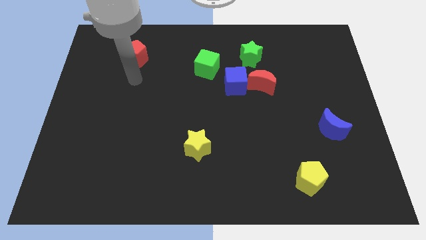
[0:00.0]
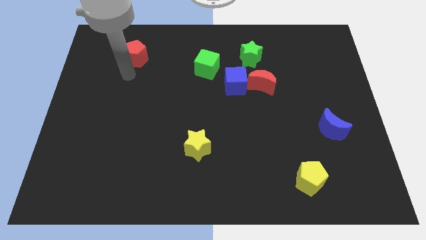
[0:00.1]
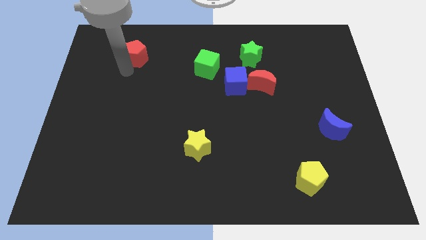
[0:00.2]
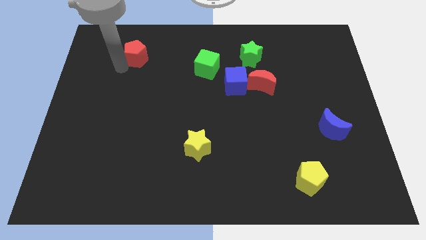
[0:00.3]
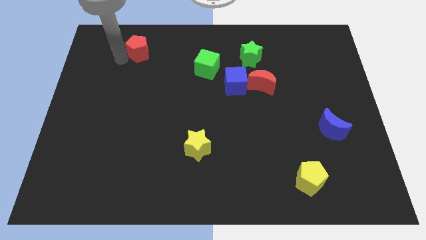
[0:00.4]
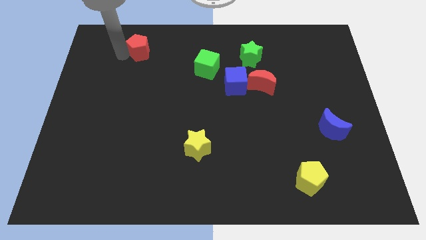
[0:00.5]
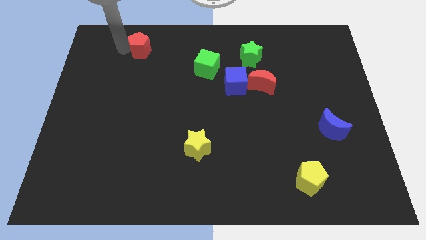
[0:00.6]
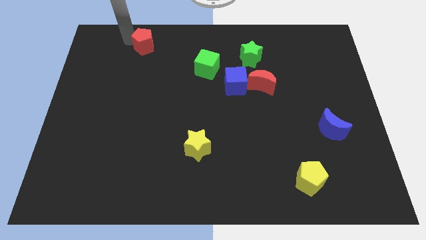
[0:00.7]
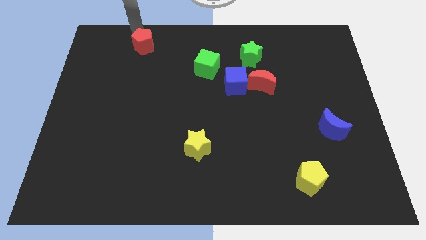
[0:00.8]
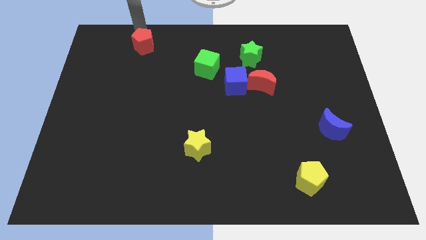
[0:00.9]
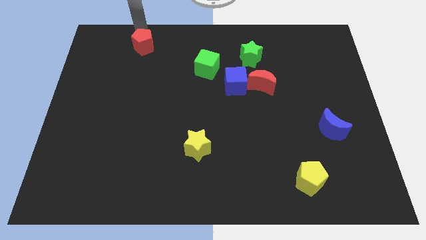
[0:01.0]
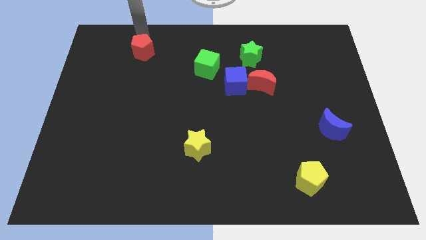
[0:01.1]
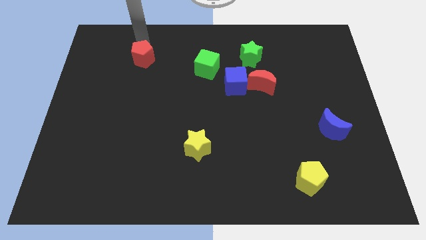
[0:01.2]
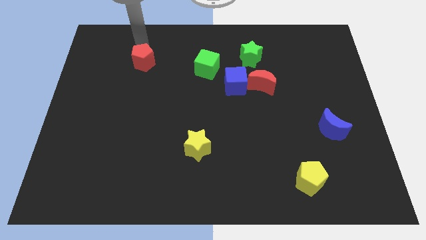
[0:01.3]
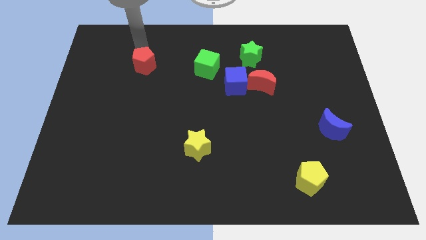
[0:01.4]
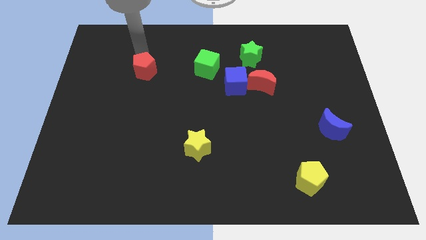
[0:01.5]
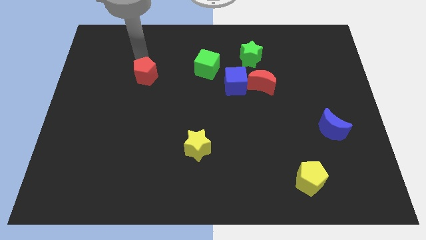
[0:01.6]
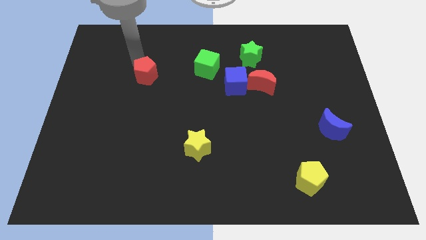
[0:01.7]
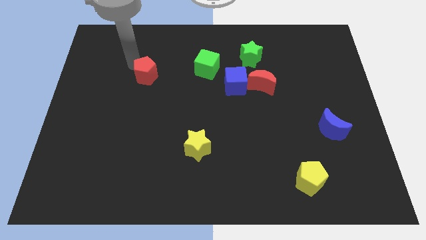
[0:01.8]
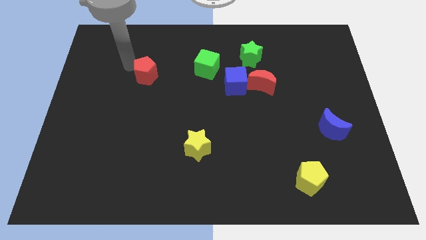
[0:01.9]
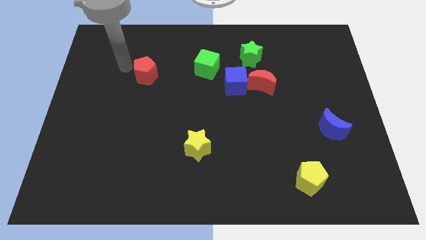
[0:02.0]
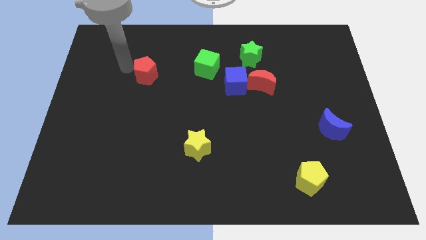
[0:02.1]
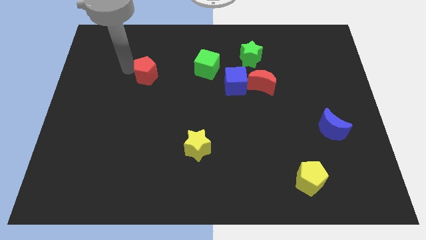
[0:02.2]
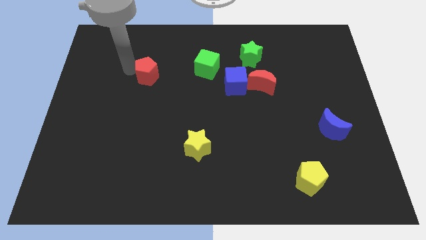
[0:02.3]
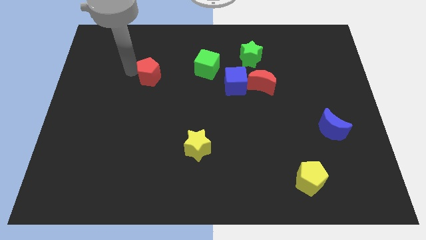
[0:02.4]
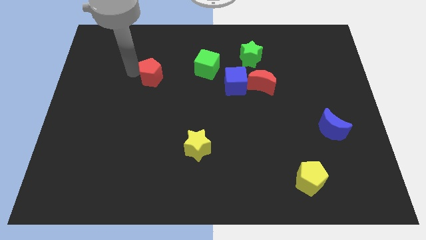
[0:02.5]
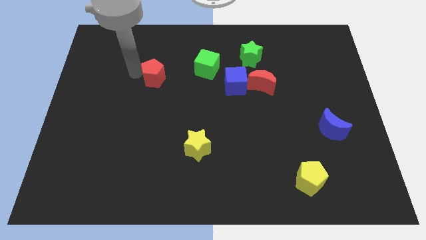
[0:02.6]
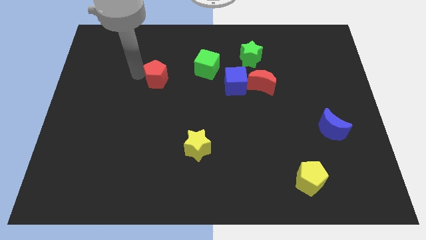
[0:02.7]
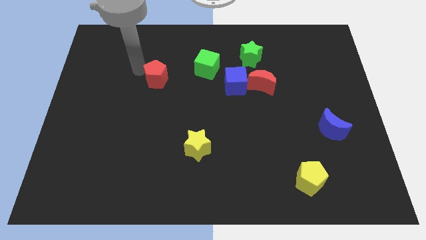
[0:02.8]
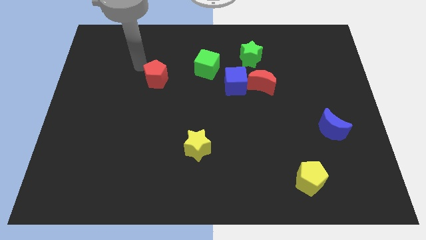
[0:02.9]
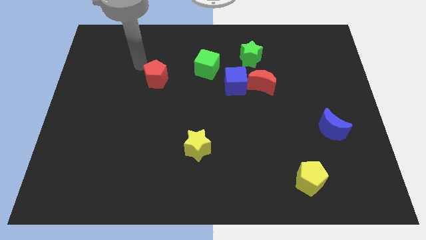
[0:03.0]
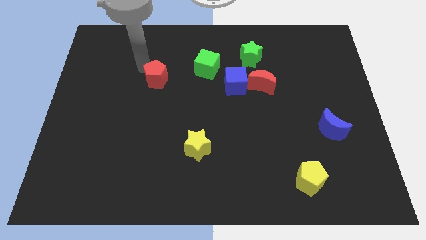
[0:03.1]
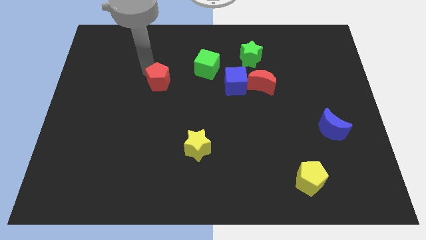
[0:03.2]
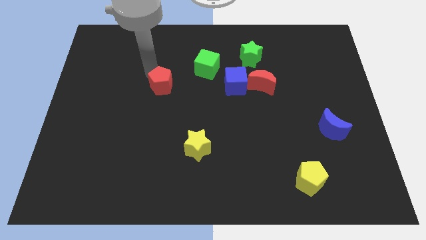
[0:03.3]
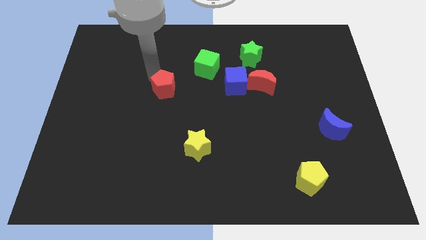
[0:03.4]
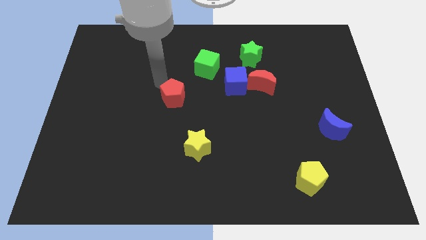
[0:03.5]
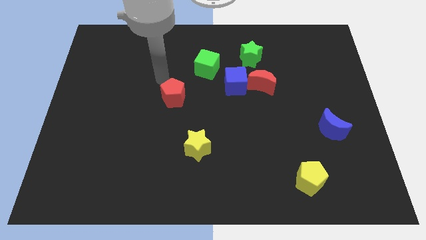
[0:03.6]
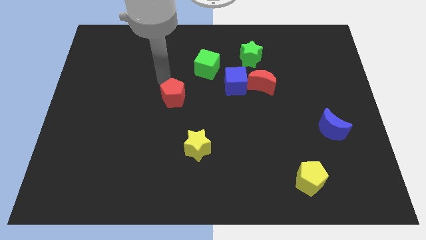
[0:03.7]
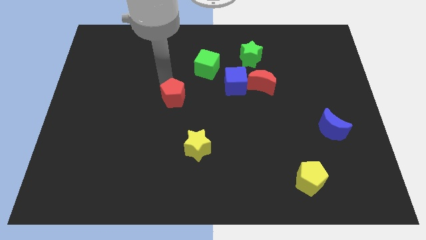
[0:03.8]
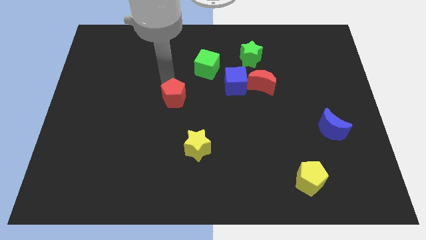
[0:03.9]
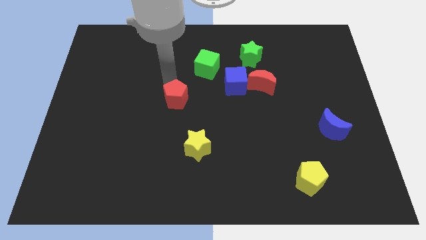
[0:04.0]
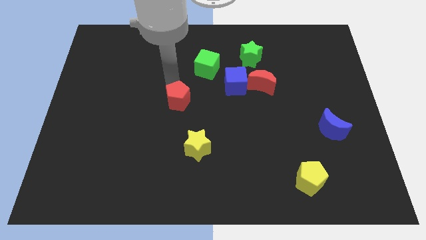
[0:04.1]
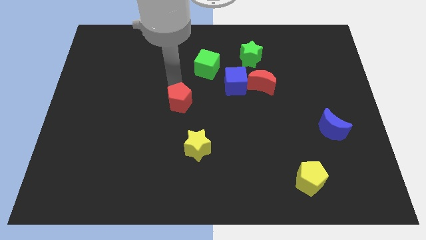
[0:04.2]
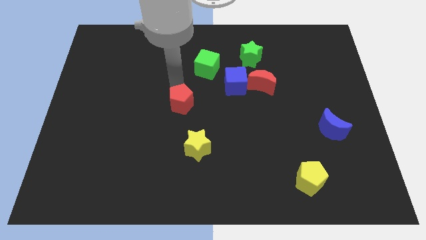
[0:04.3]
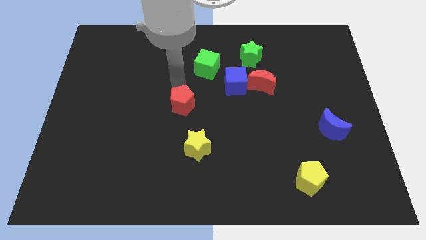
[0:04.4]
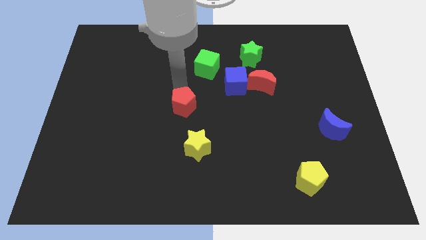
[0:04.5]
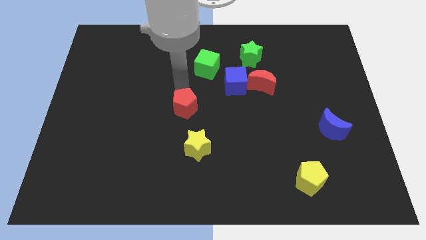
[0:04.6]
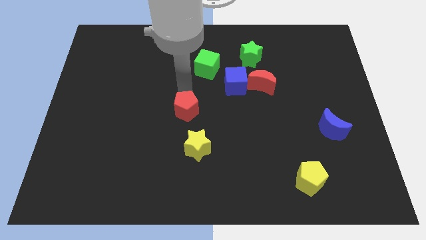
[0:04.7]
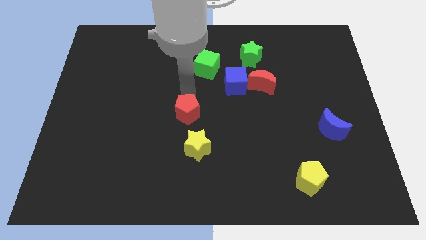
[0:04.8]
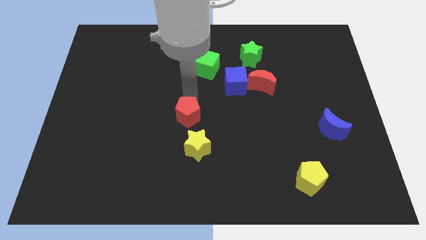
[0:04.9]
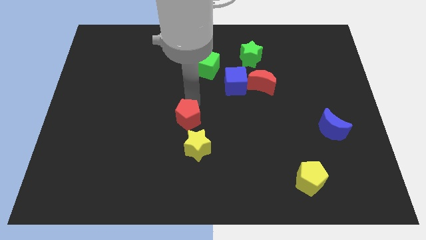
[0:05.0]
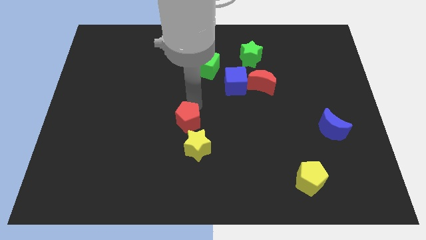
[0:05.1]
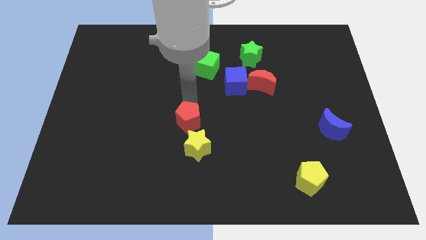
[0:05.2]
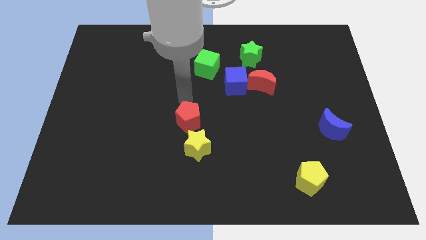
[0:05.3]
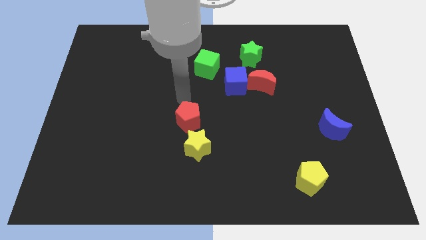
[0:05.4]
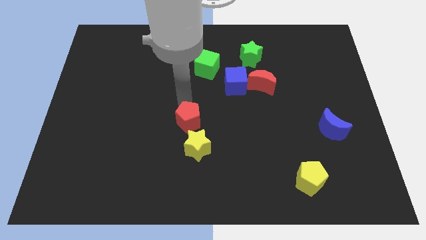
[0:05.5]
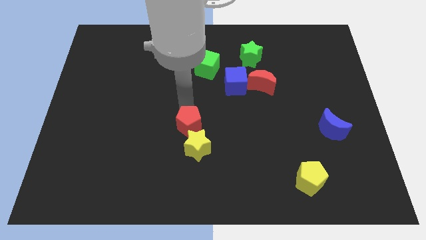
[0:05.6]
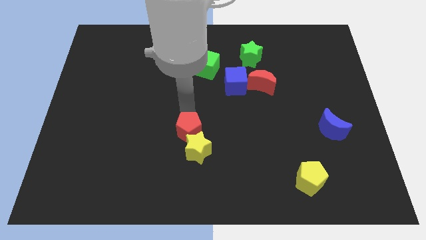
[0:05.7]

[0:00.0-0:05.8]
slide the red pentagon next to the yellow star

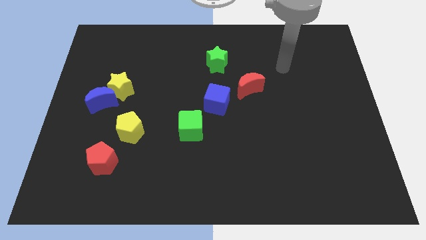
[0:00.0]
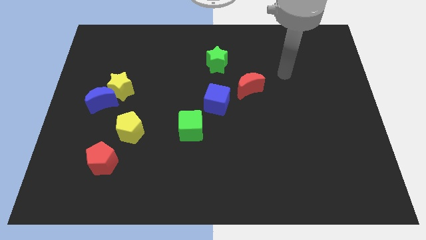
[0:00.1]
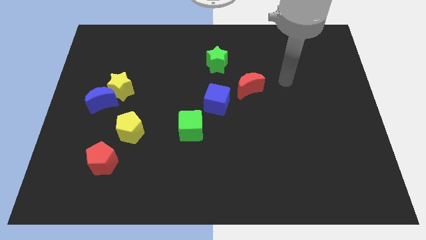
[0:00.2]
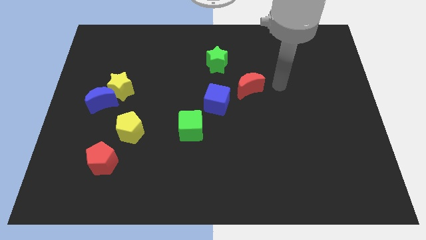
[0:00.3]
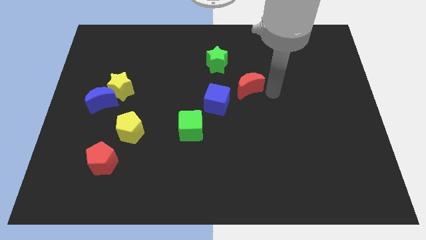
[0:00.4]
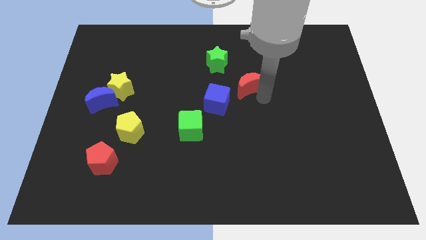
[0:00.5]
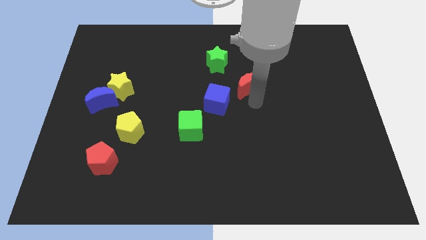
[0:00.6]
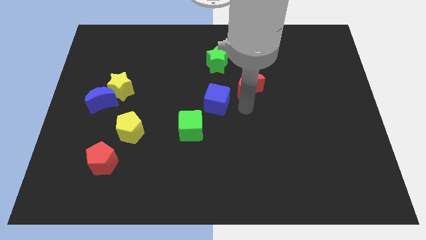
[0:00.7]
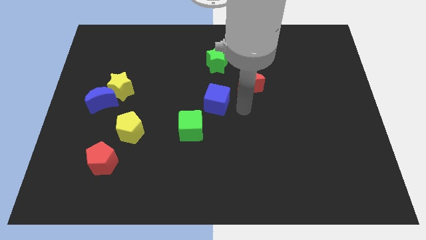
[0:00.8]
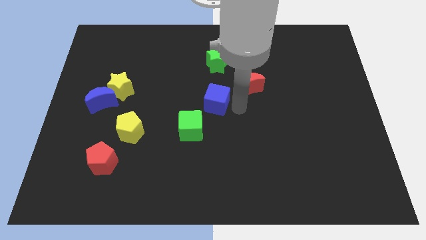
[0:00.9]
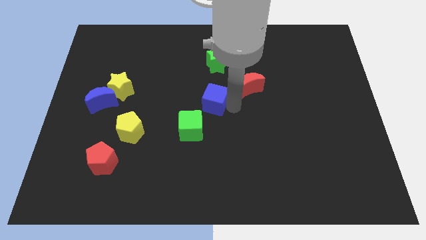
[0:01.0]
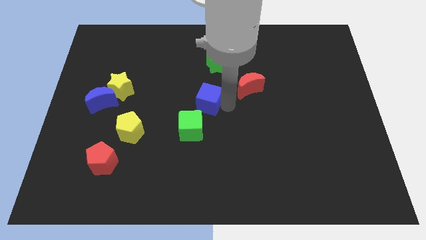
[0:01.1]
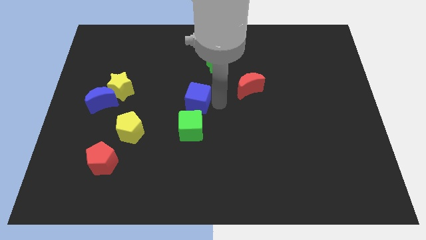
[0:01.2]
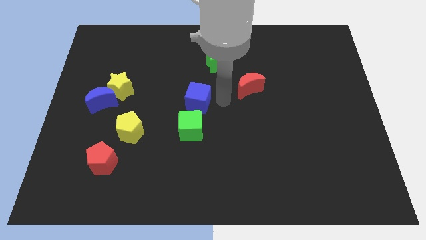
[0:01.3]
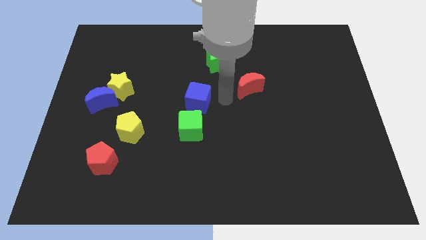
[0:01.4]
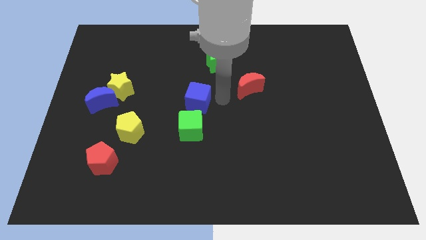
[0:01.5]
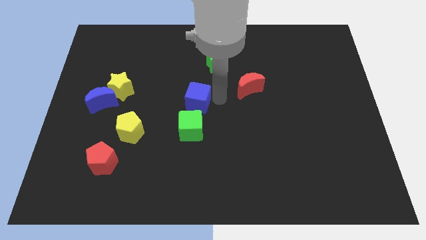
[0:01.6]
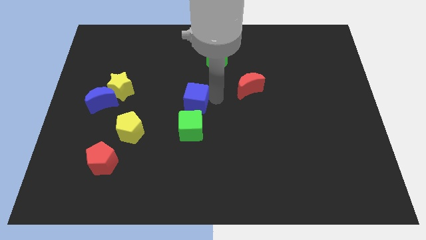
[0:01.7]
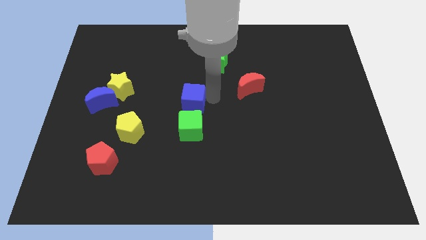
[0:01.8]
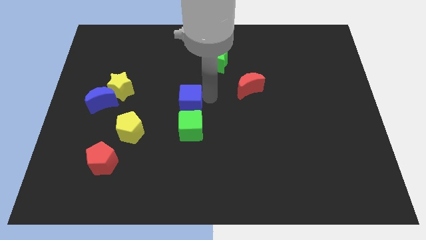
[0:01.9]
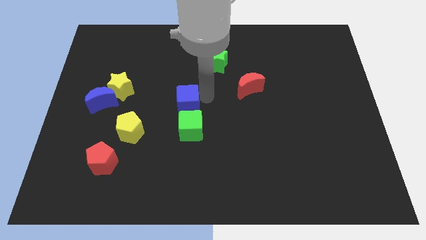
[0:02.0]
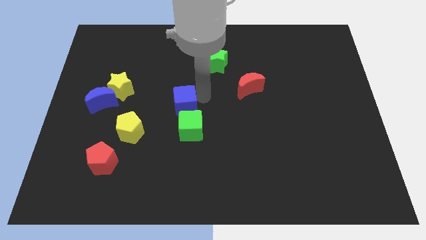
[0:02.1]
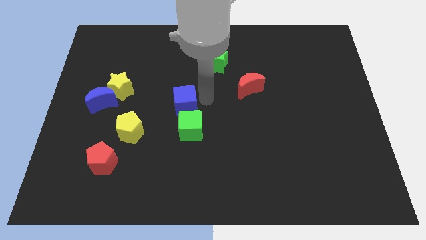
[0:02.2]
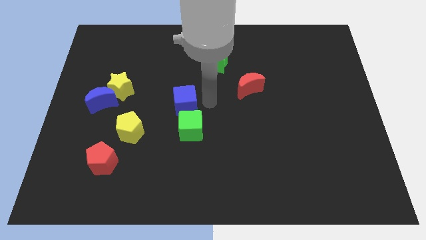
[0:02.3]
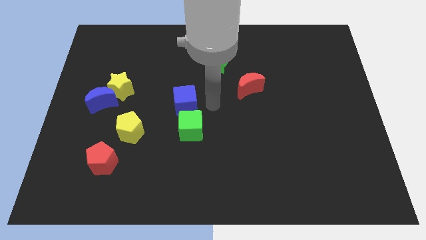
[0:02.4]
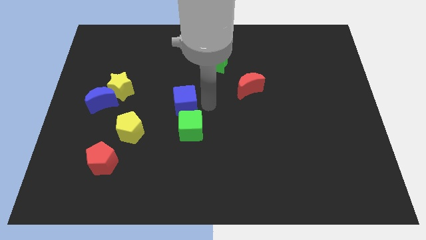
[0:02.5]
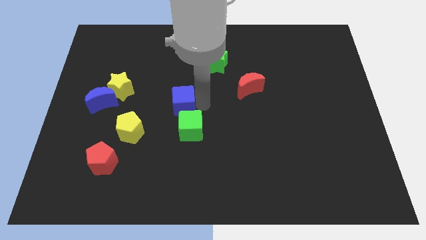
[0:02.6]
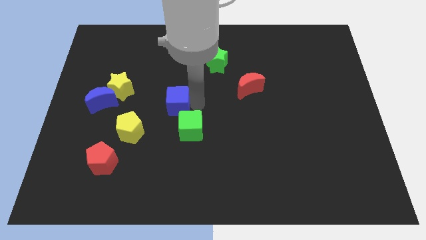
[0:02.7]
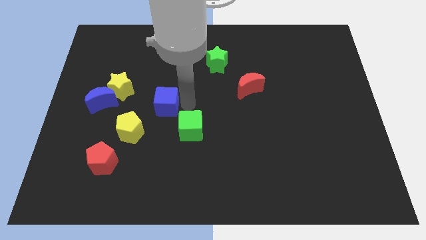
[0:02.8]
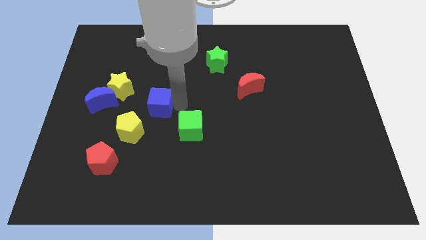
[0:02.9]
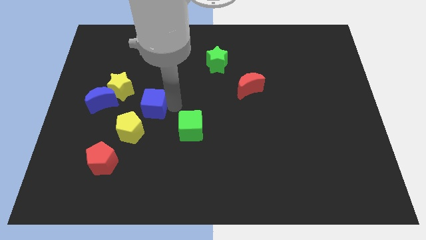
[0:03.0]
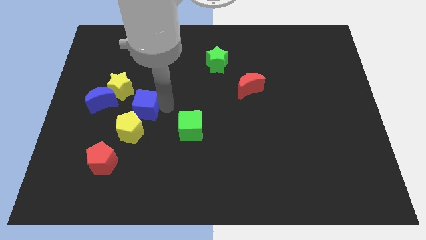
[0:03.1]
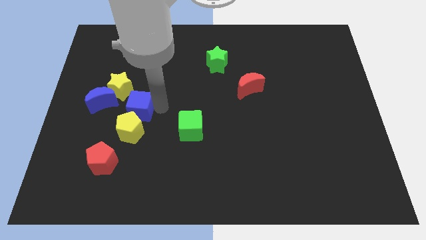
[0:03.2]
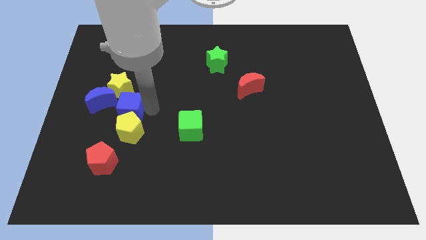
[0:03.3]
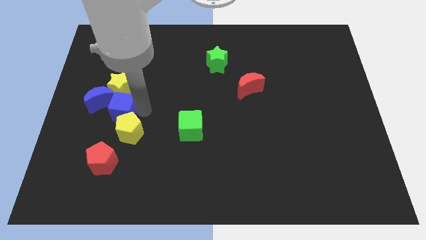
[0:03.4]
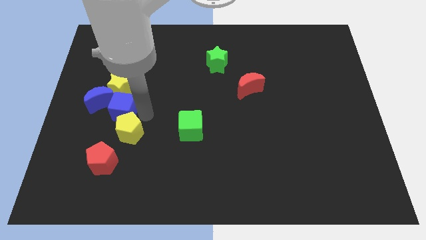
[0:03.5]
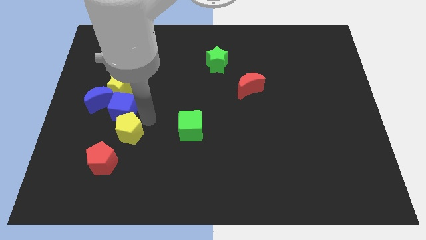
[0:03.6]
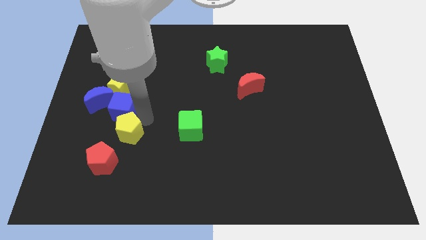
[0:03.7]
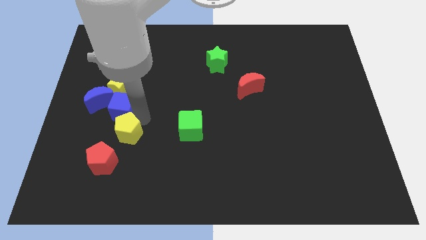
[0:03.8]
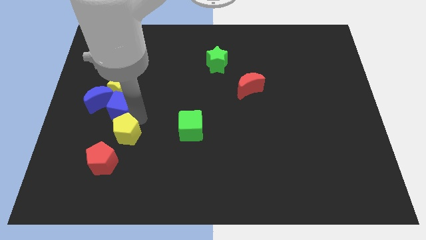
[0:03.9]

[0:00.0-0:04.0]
put the blue cube to the blue moon
